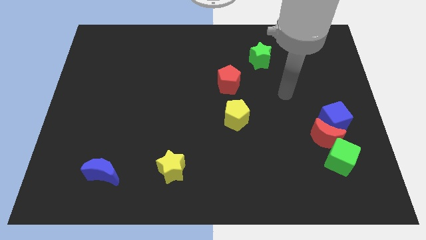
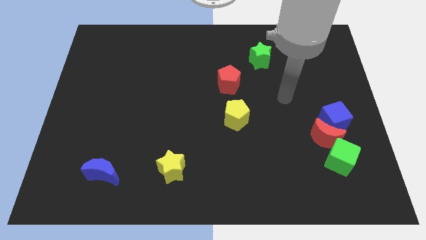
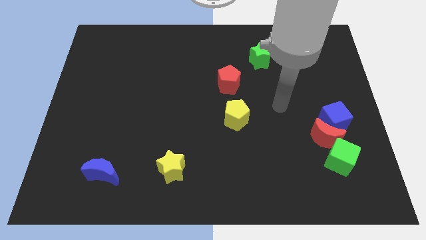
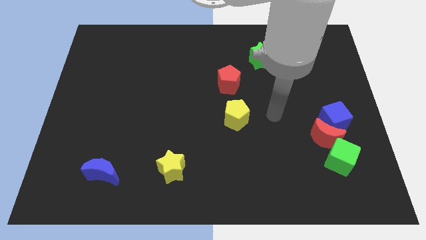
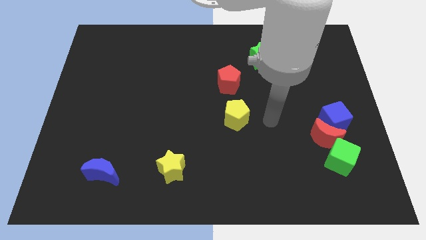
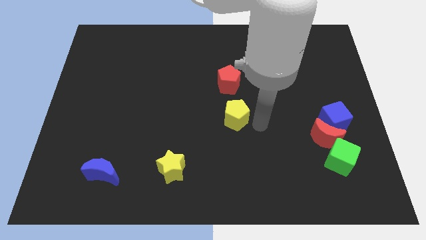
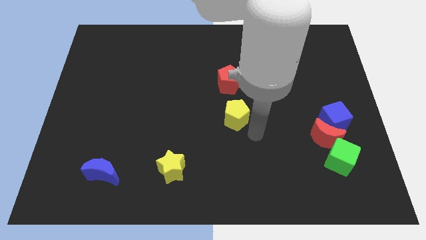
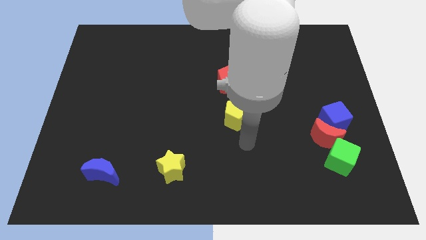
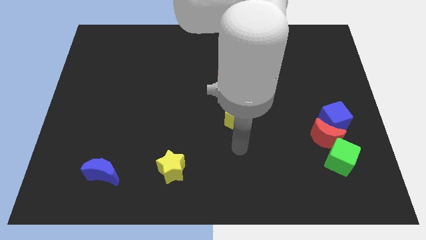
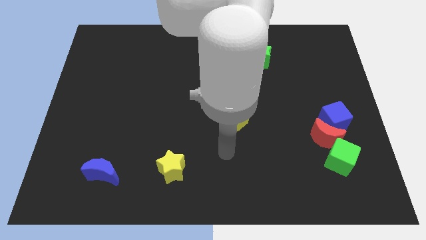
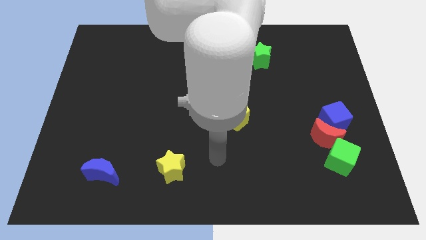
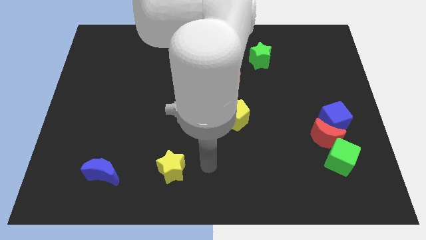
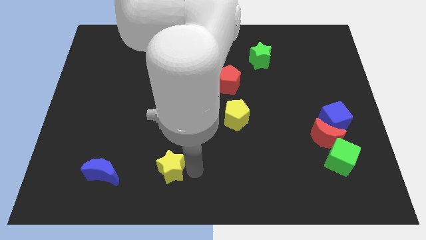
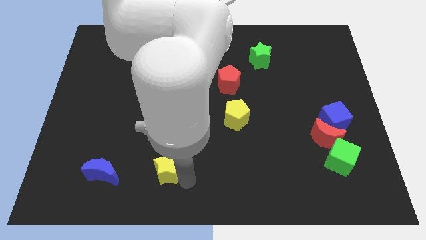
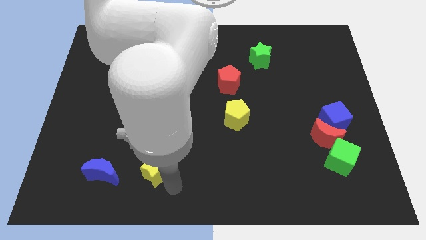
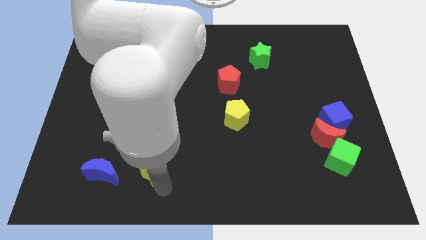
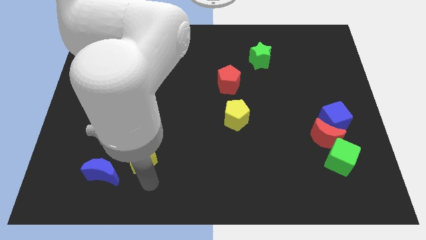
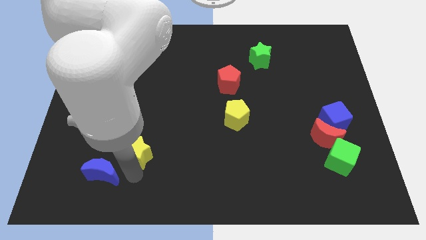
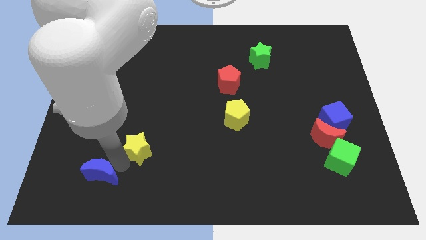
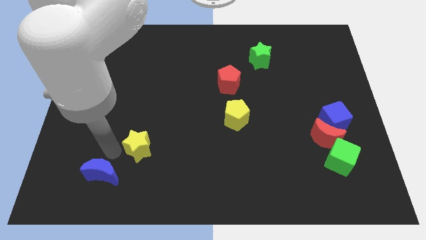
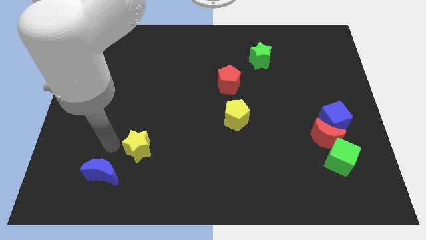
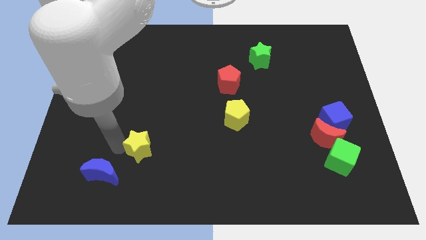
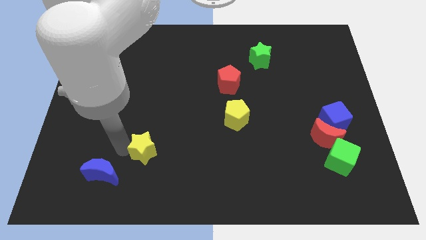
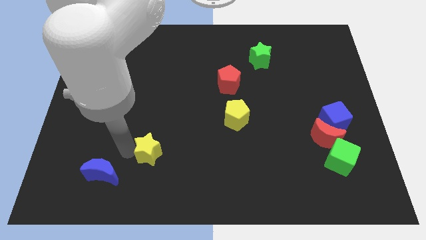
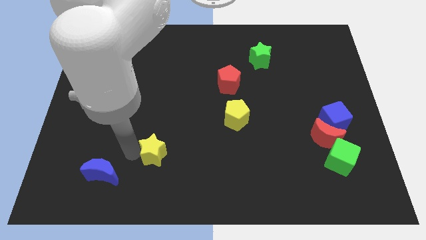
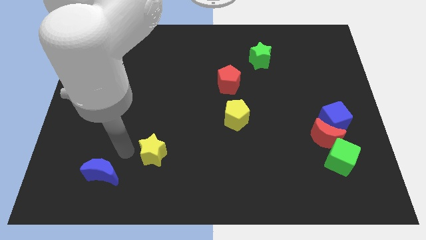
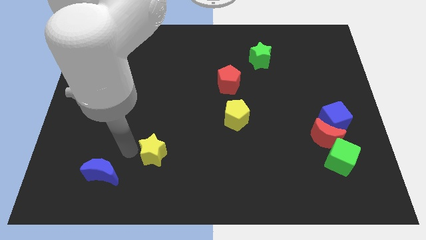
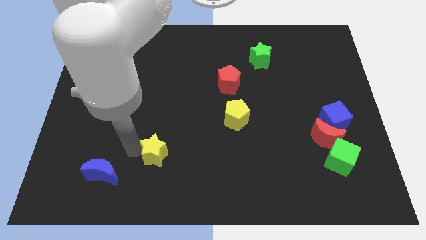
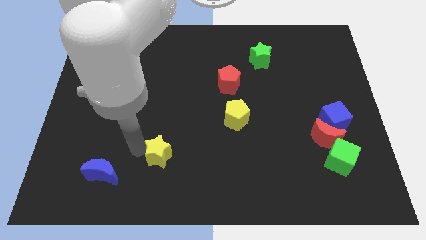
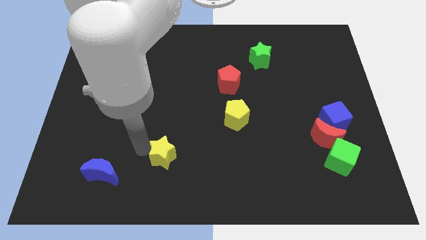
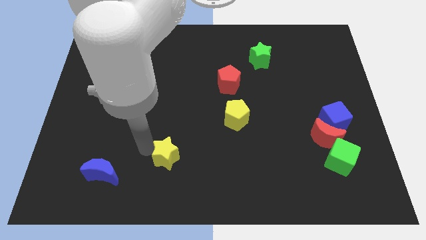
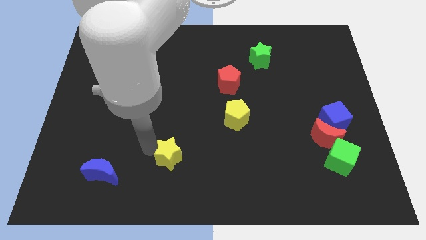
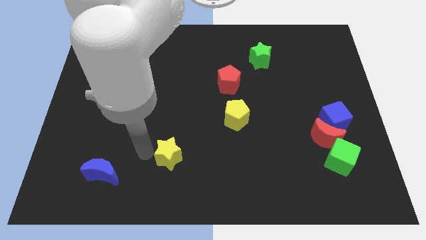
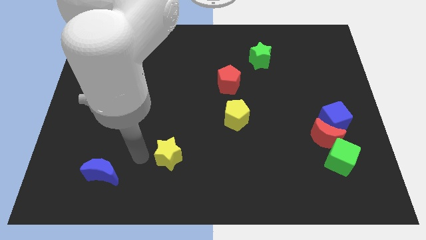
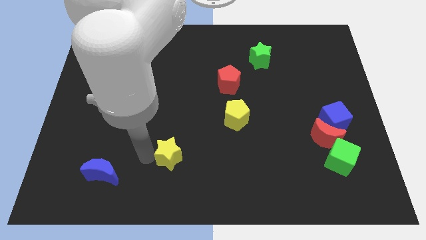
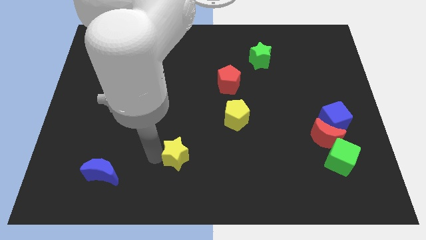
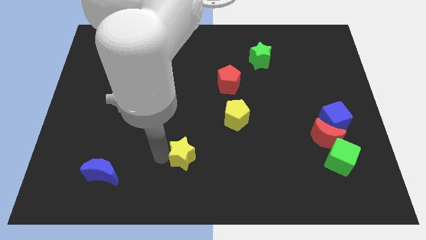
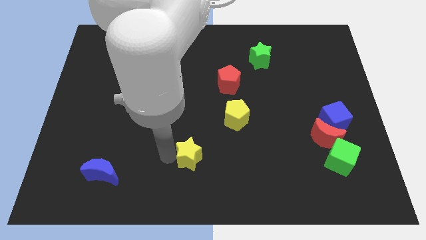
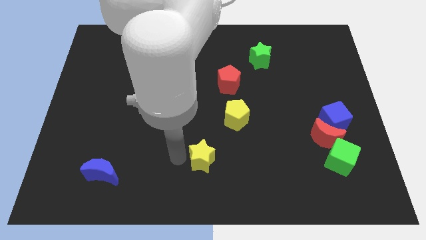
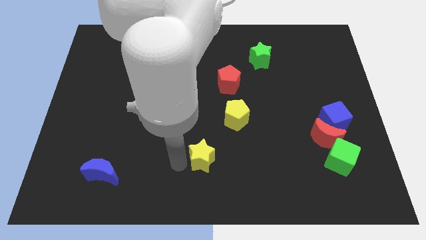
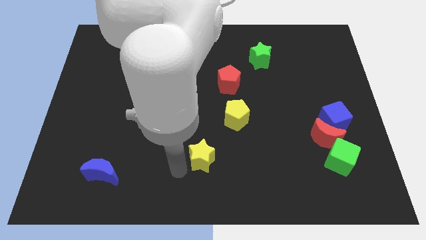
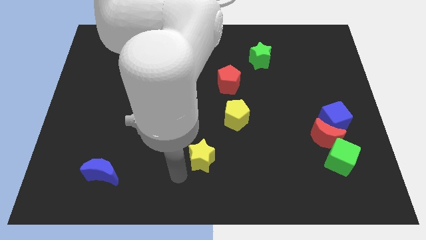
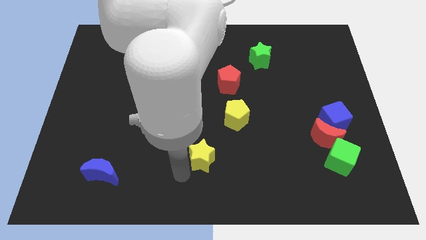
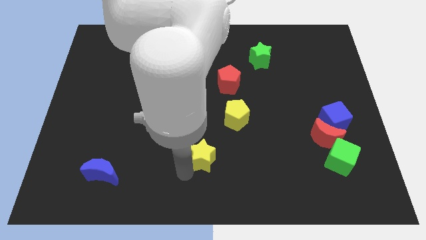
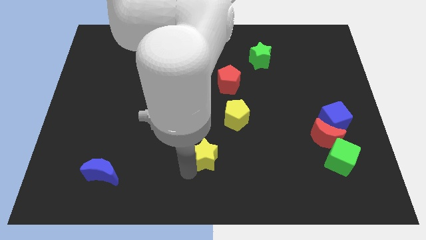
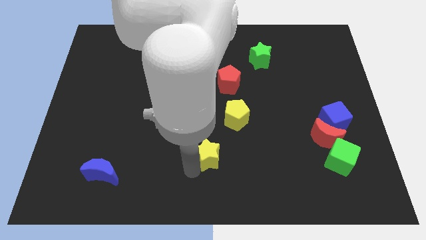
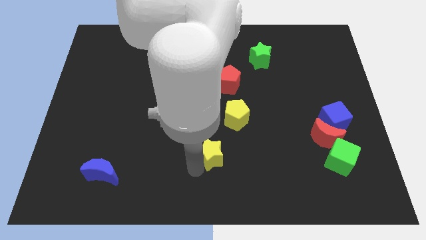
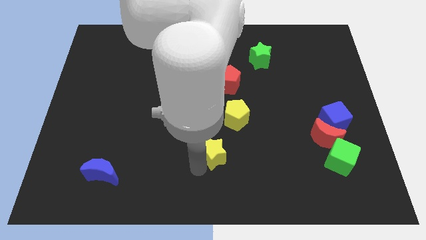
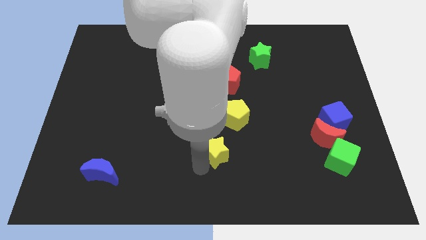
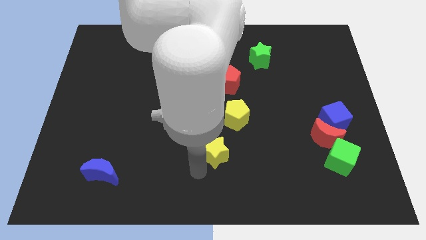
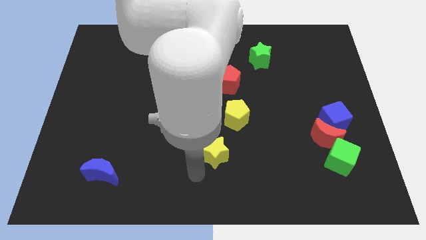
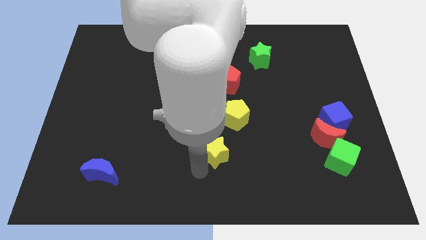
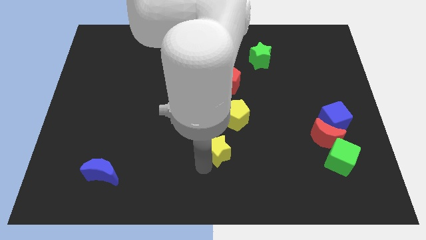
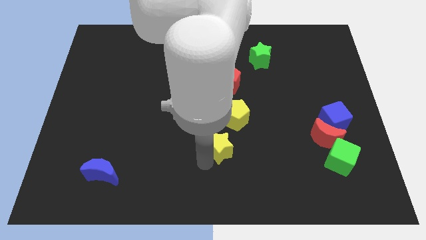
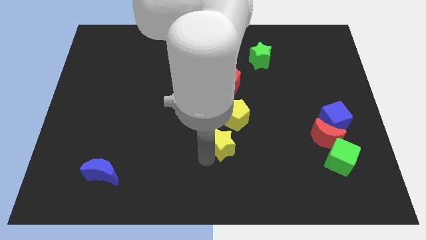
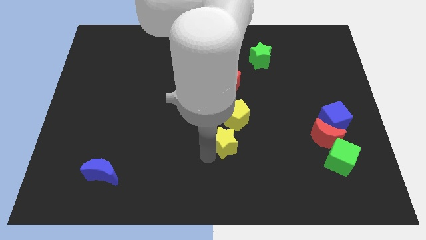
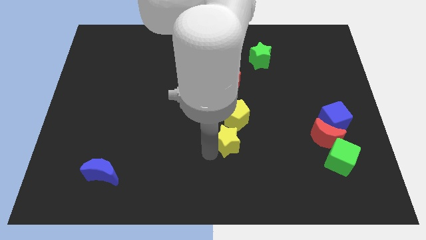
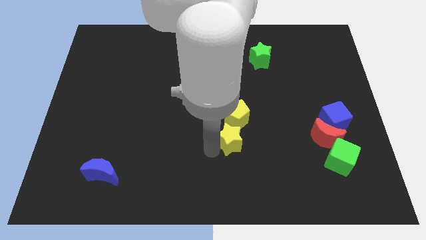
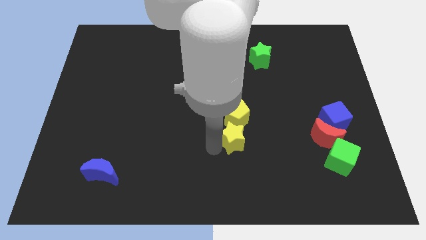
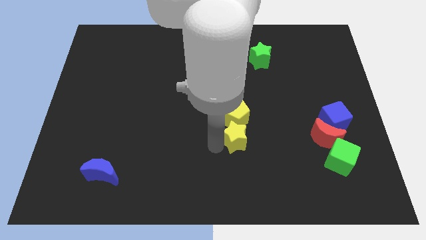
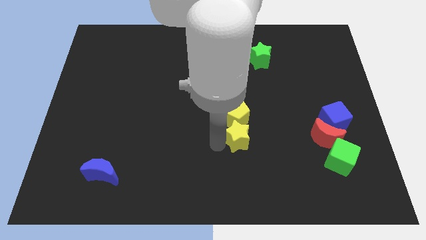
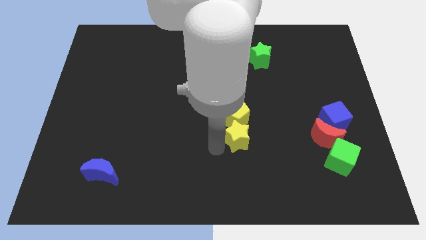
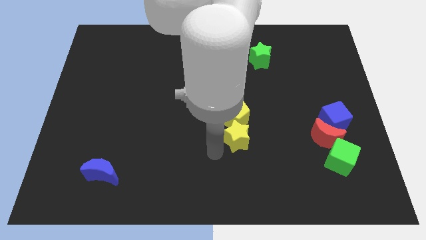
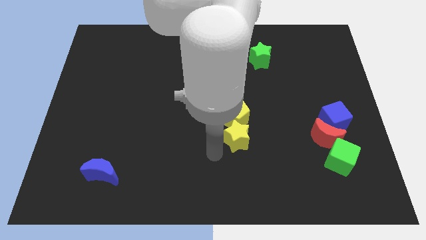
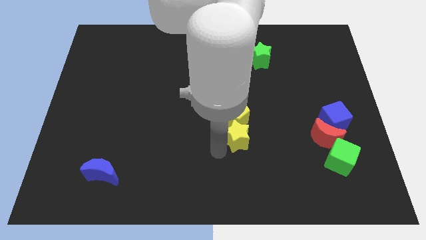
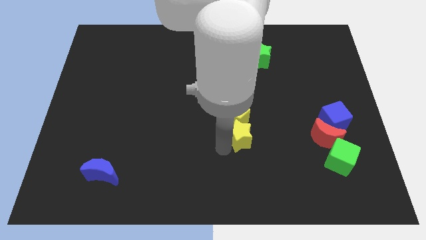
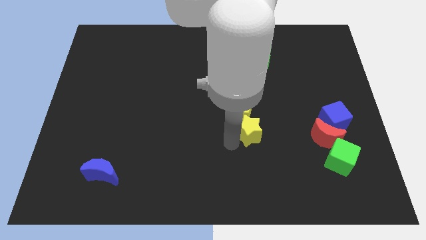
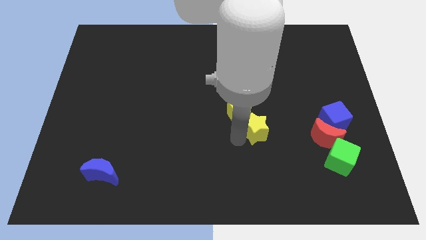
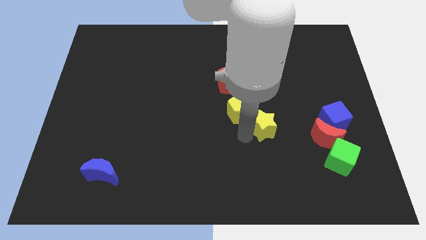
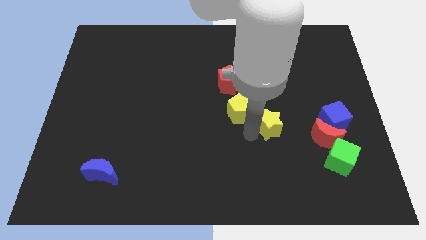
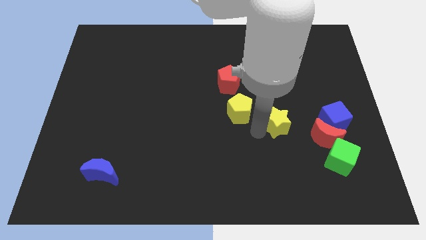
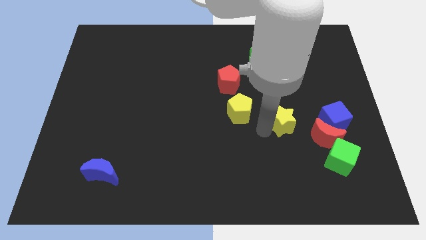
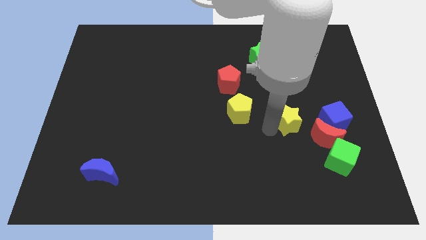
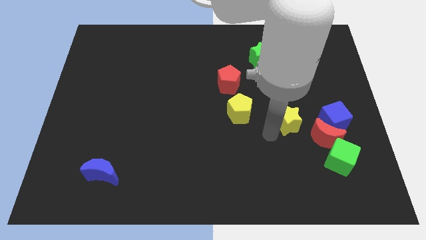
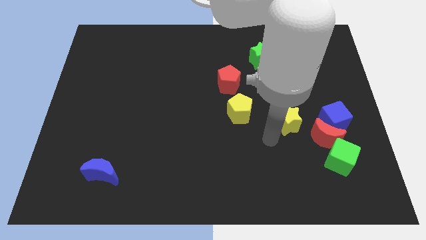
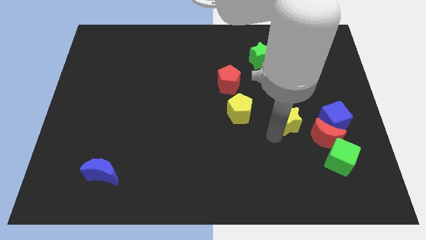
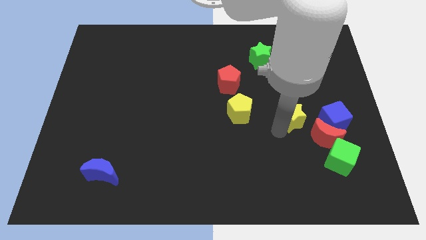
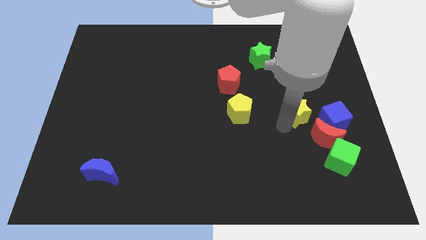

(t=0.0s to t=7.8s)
slide the yellow star diagonally up and to the left of the blue cube

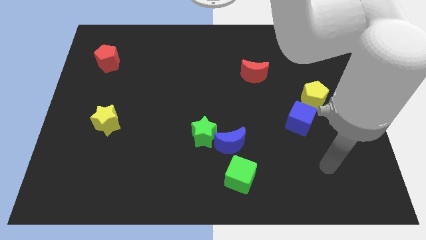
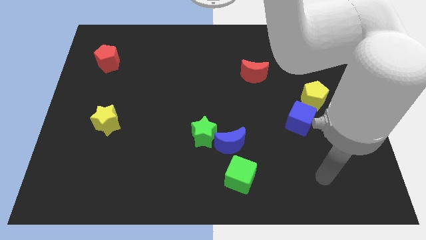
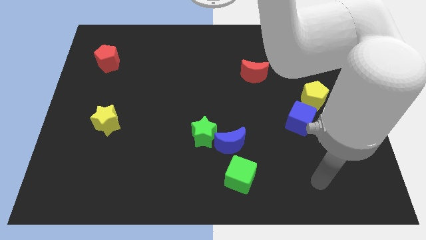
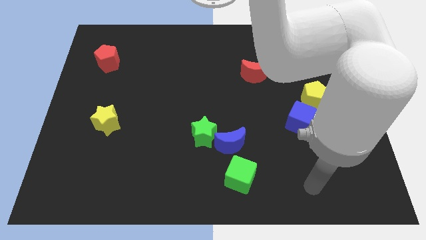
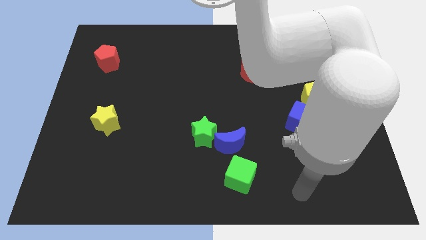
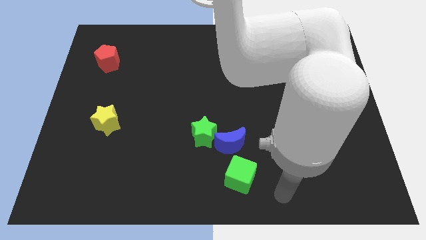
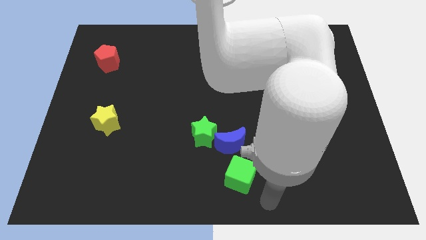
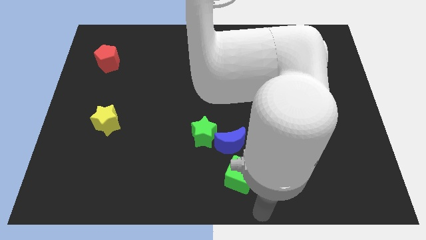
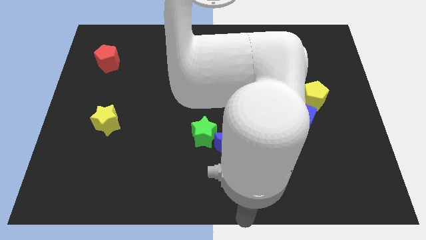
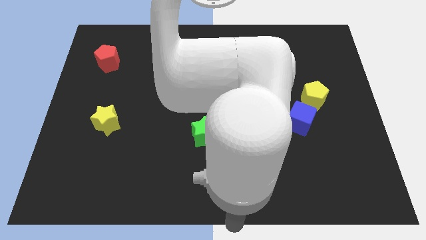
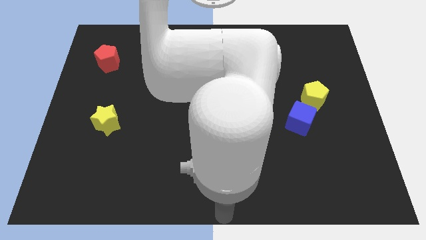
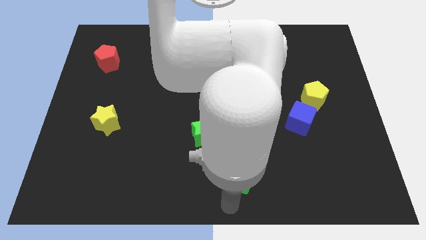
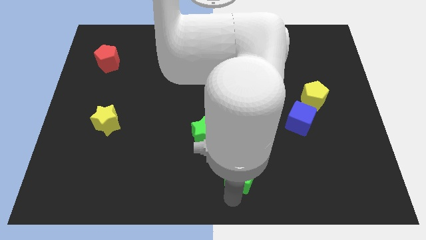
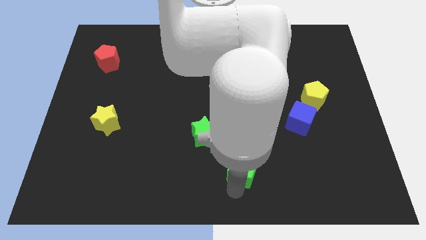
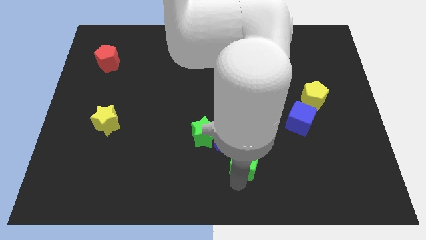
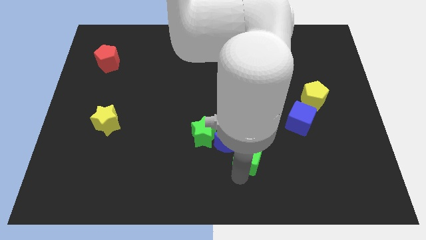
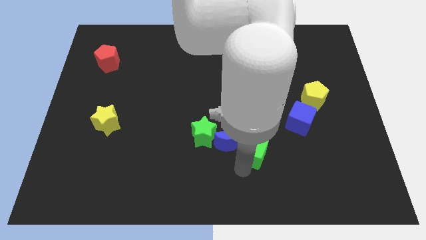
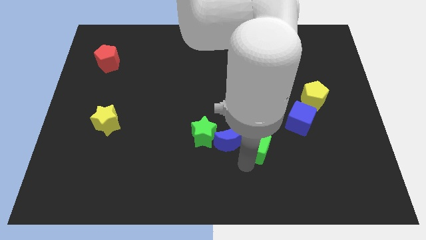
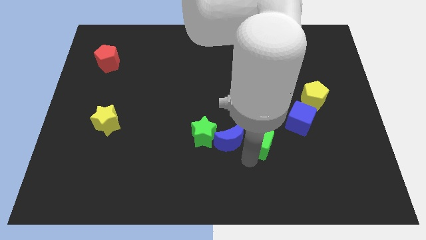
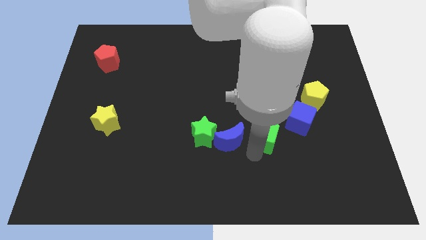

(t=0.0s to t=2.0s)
move the green cube to the left of the blue cube
